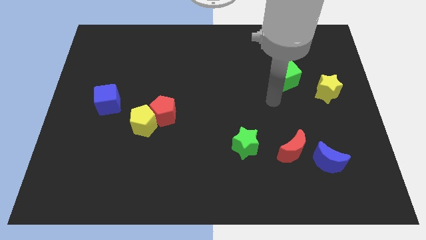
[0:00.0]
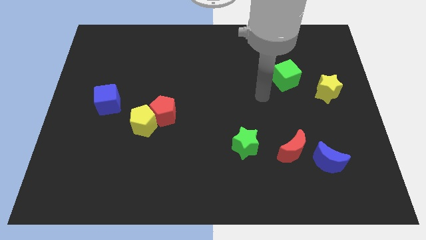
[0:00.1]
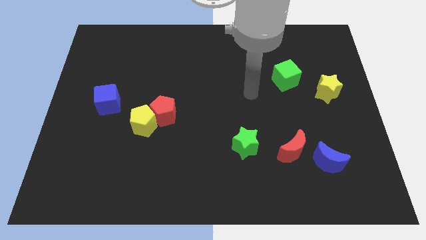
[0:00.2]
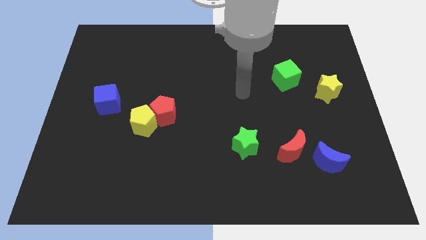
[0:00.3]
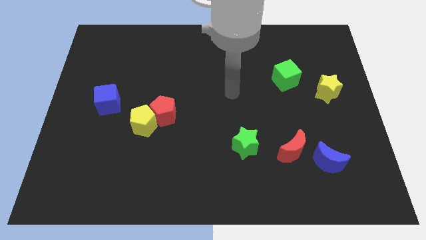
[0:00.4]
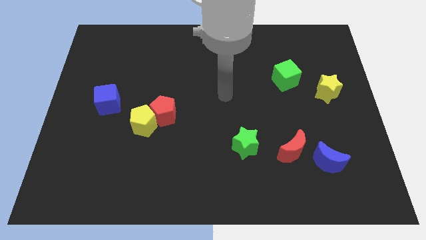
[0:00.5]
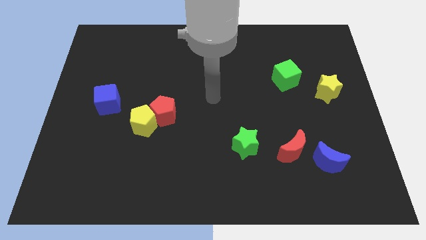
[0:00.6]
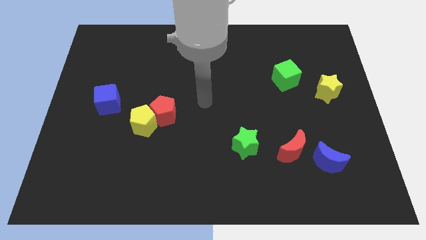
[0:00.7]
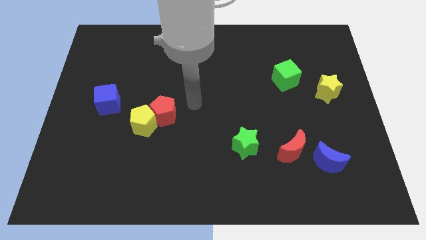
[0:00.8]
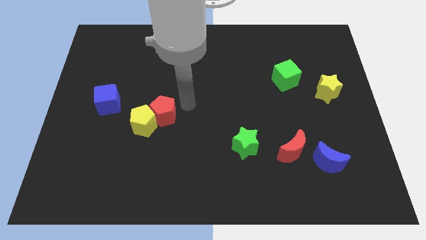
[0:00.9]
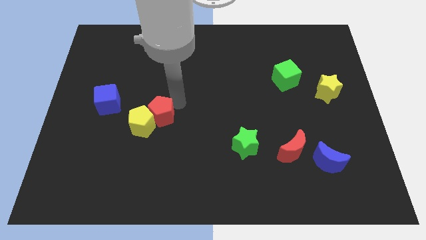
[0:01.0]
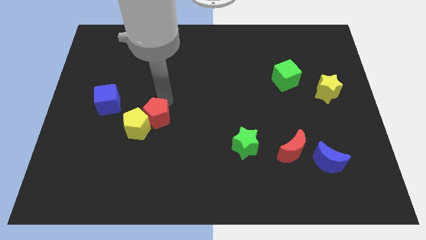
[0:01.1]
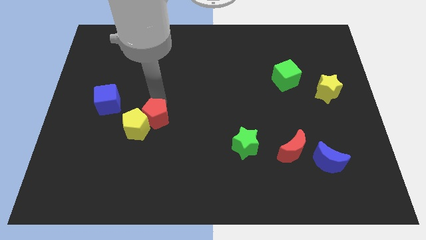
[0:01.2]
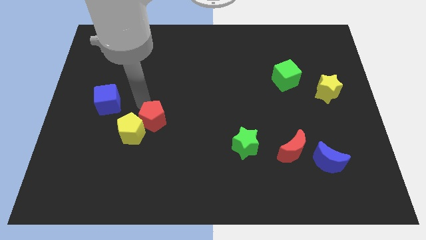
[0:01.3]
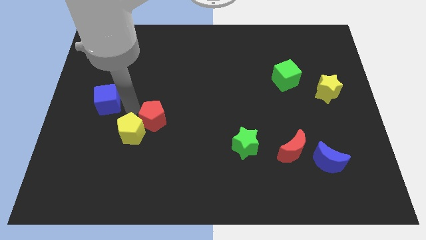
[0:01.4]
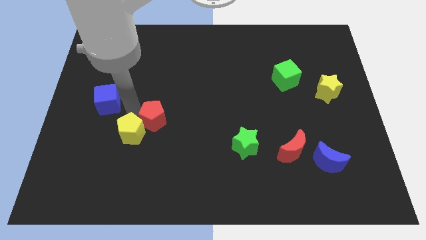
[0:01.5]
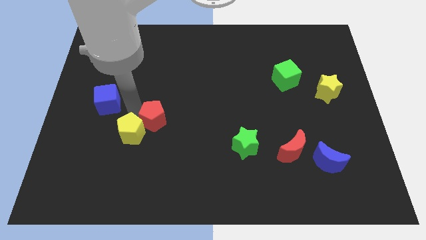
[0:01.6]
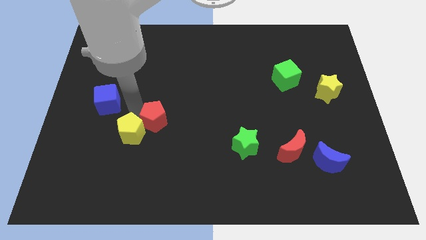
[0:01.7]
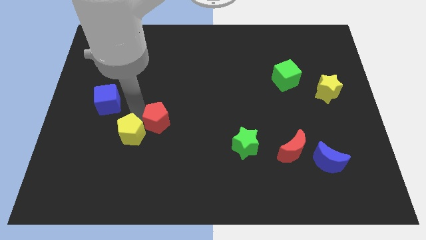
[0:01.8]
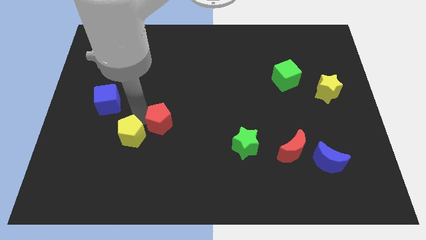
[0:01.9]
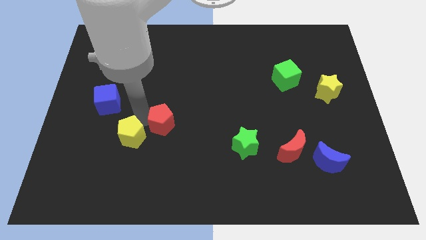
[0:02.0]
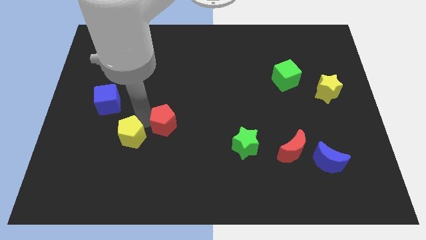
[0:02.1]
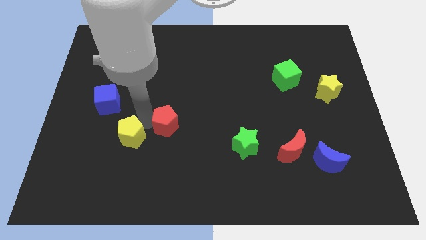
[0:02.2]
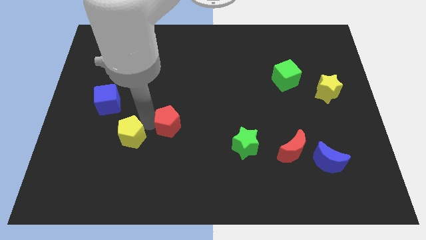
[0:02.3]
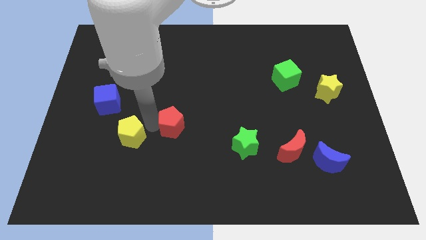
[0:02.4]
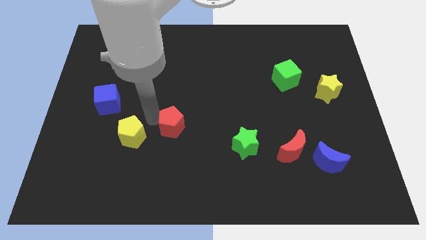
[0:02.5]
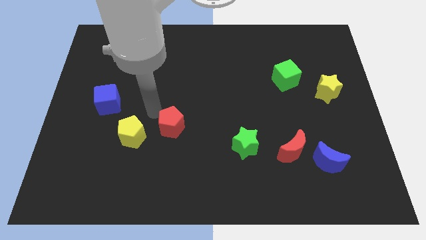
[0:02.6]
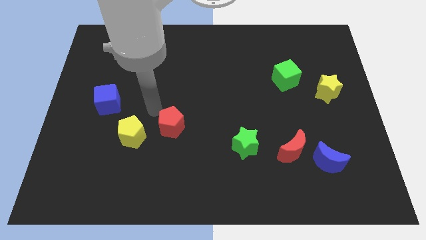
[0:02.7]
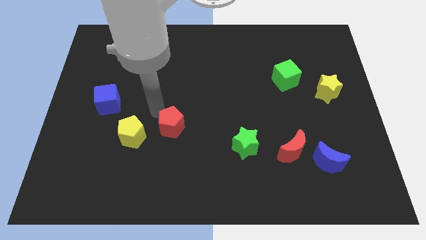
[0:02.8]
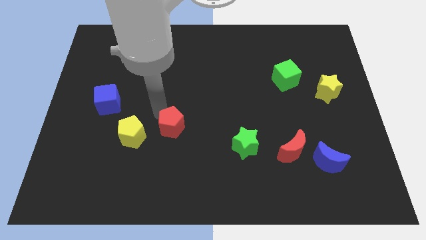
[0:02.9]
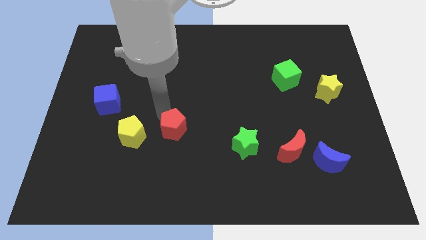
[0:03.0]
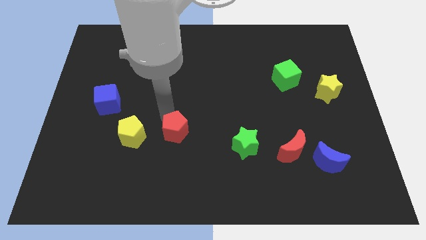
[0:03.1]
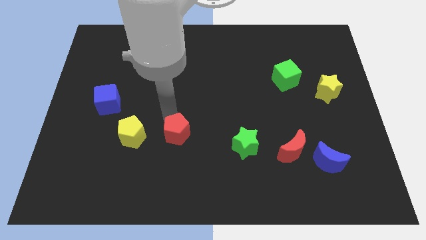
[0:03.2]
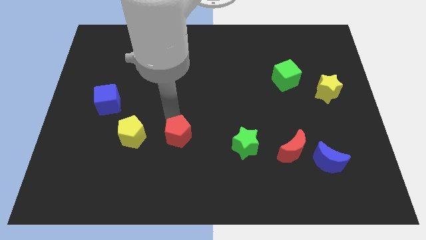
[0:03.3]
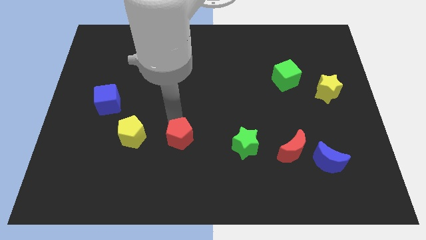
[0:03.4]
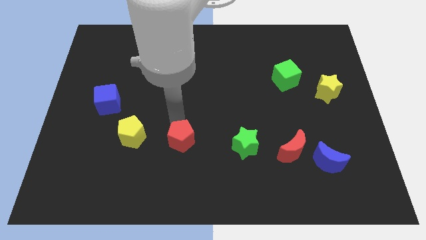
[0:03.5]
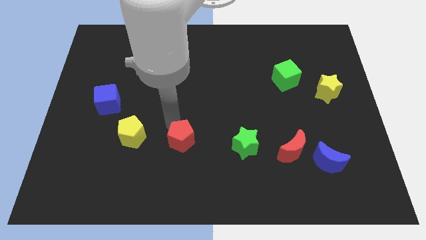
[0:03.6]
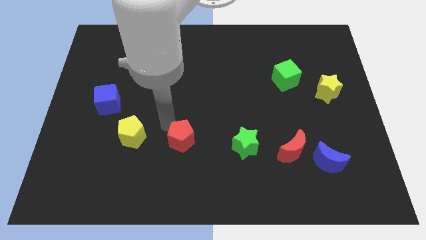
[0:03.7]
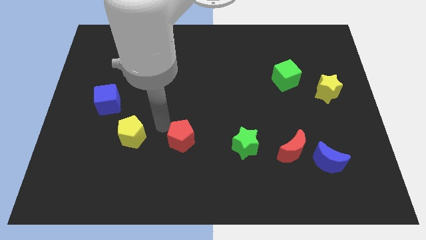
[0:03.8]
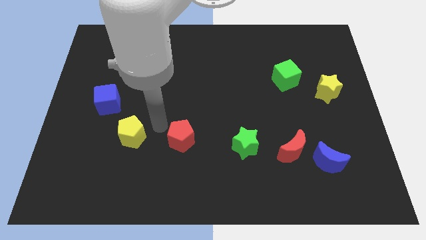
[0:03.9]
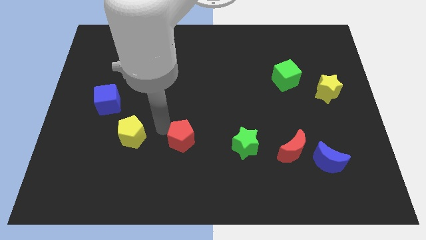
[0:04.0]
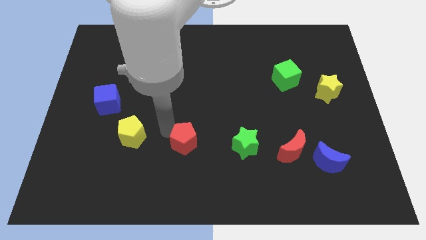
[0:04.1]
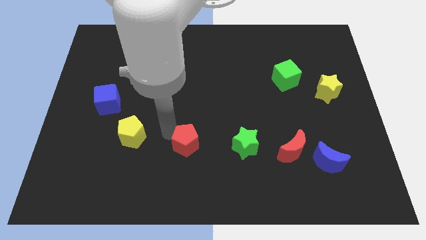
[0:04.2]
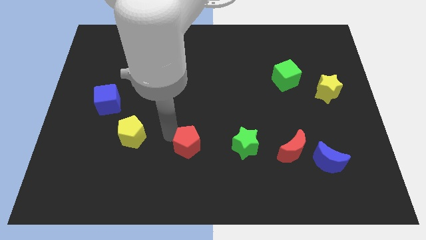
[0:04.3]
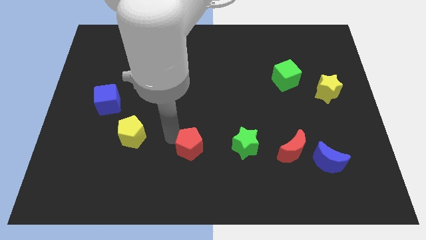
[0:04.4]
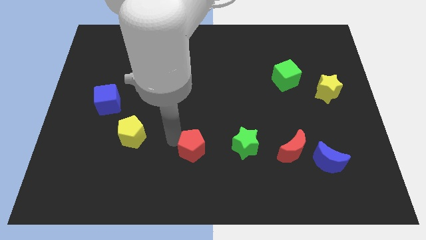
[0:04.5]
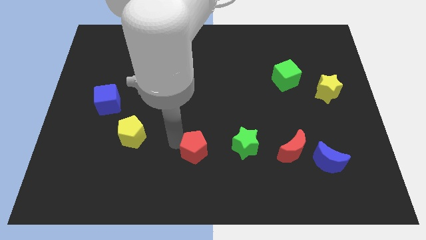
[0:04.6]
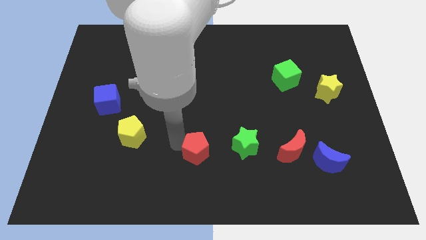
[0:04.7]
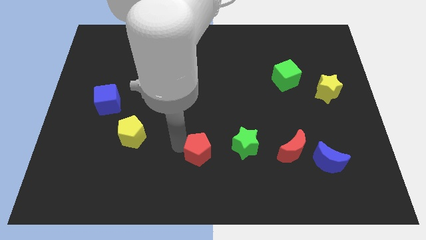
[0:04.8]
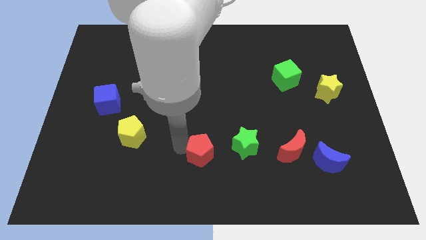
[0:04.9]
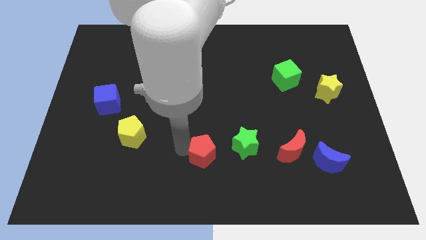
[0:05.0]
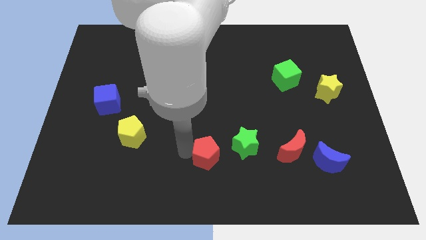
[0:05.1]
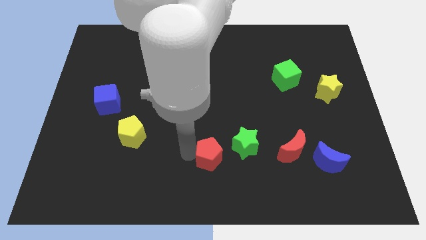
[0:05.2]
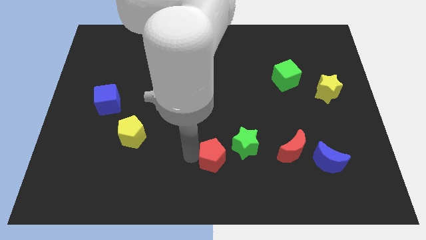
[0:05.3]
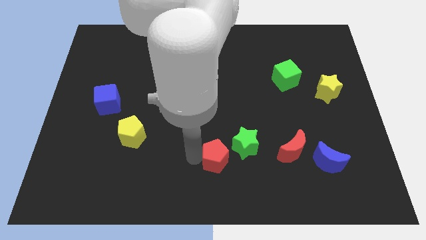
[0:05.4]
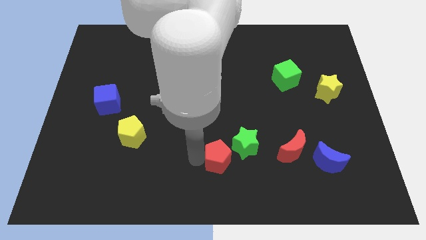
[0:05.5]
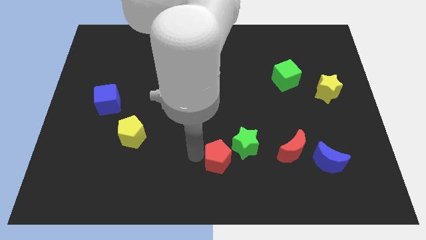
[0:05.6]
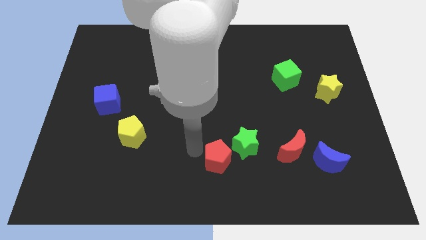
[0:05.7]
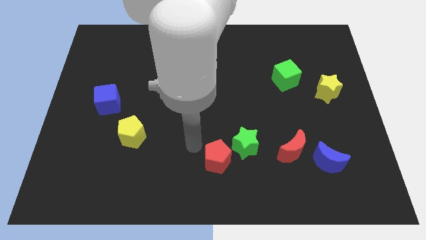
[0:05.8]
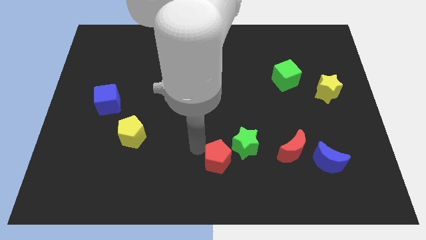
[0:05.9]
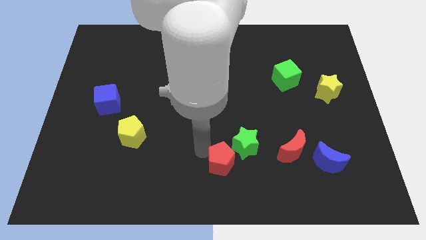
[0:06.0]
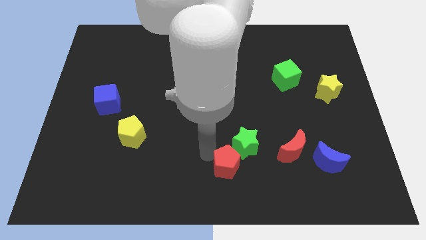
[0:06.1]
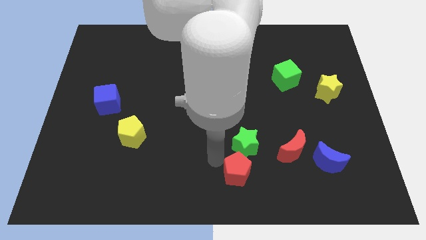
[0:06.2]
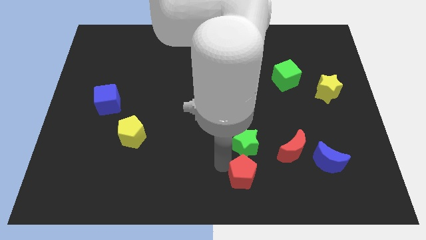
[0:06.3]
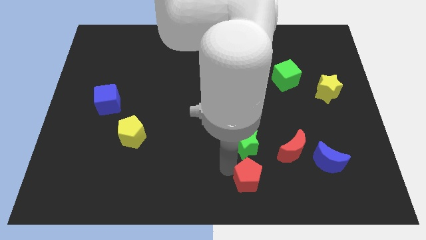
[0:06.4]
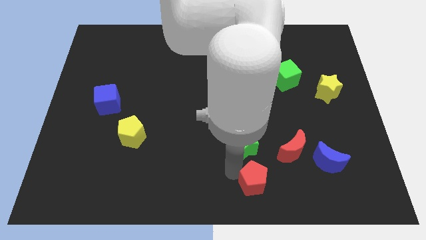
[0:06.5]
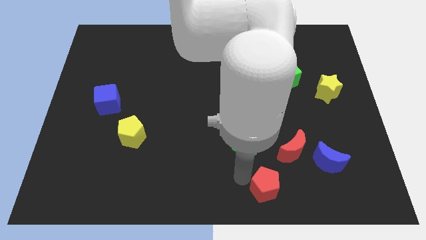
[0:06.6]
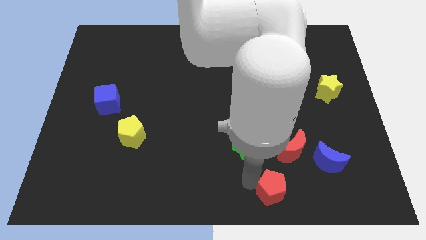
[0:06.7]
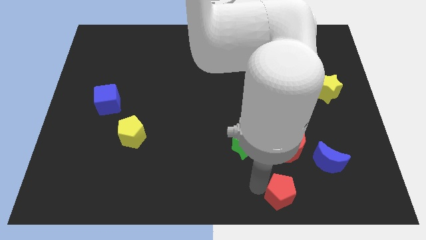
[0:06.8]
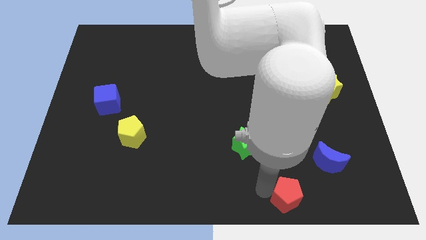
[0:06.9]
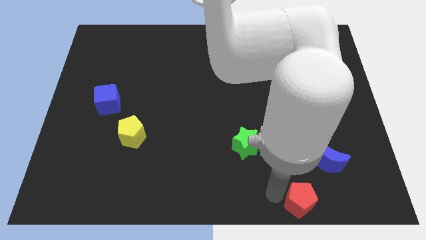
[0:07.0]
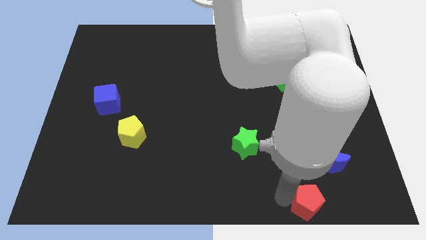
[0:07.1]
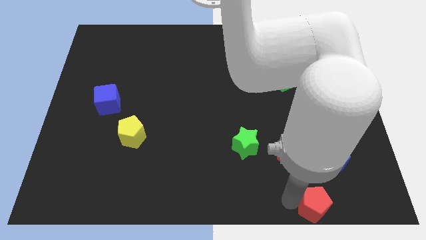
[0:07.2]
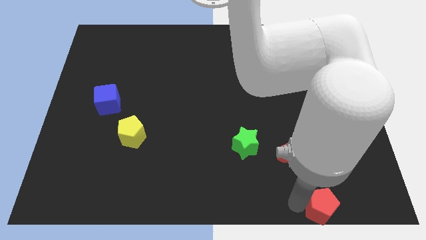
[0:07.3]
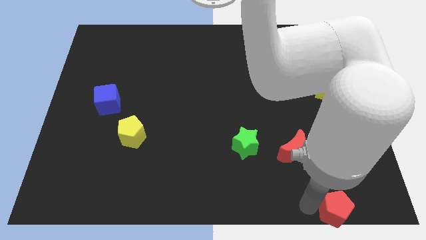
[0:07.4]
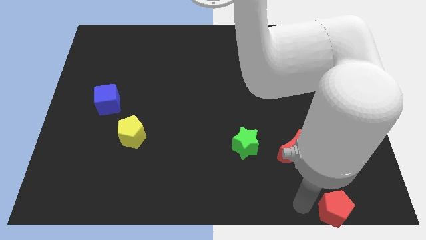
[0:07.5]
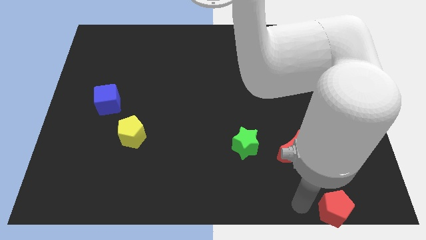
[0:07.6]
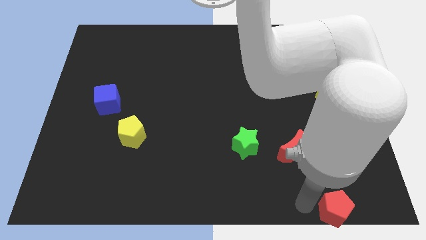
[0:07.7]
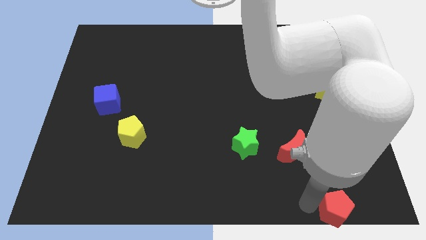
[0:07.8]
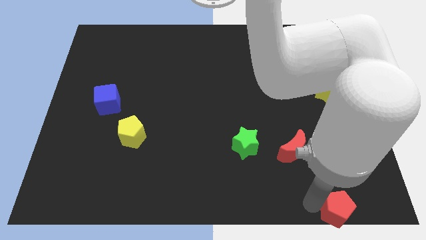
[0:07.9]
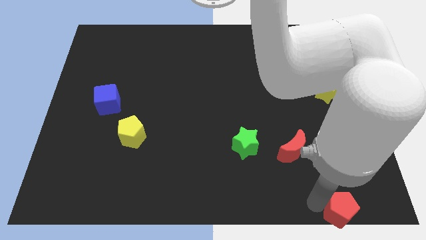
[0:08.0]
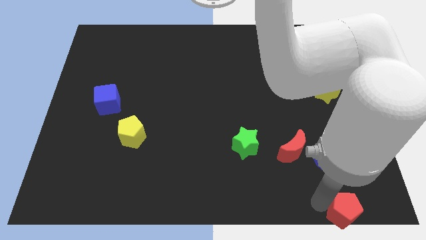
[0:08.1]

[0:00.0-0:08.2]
slide the red pentagon to the bottom right

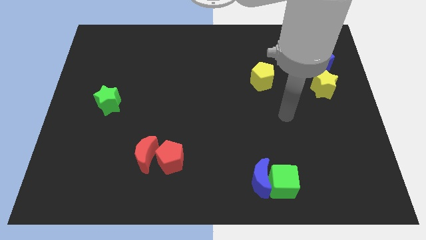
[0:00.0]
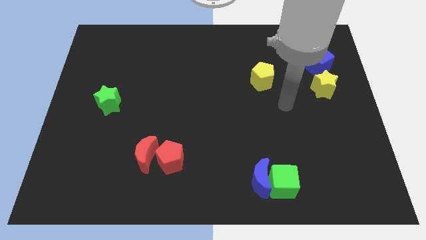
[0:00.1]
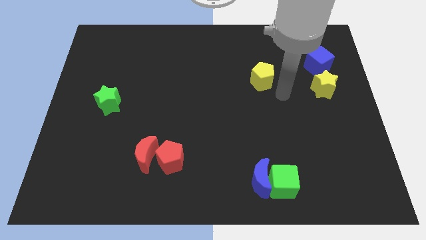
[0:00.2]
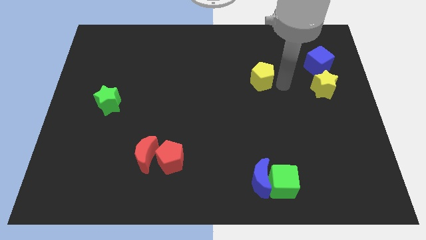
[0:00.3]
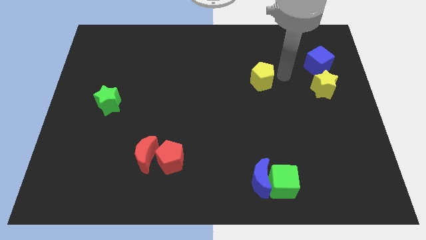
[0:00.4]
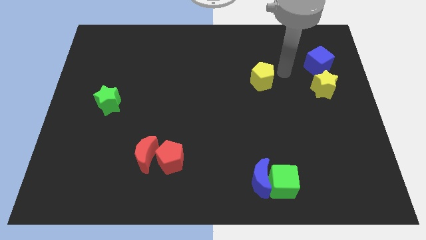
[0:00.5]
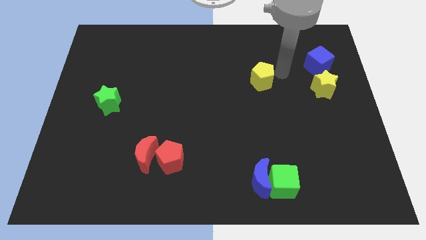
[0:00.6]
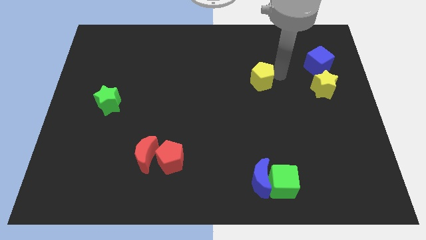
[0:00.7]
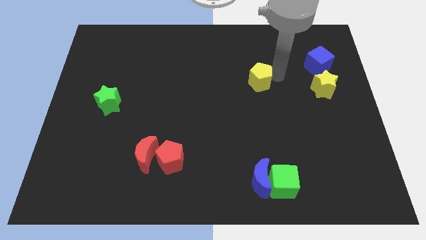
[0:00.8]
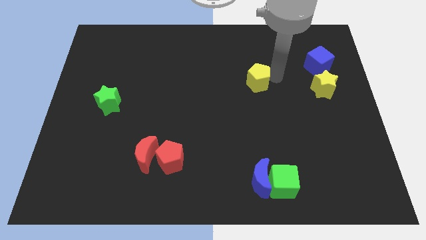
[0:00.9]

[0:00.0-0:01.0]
slide the yellow pentagon to the center of the board
